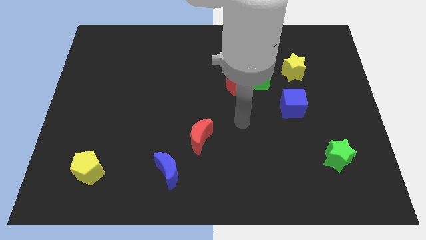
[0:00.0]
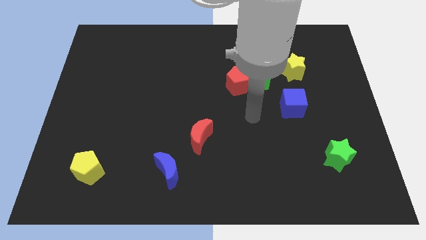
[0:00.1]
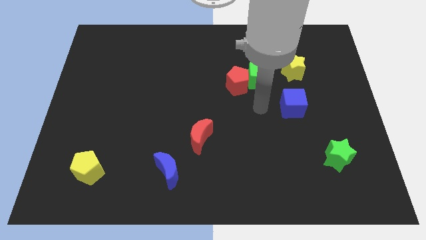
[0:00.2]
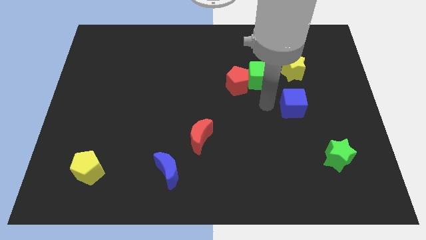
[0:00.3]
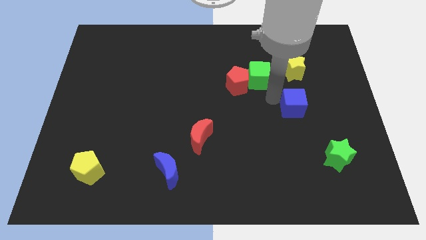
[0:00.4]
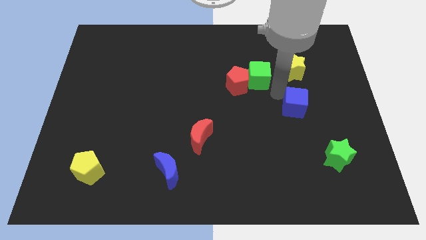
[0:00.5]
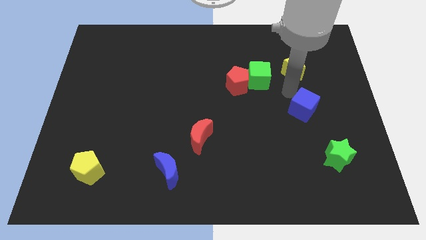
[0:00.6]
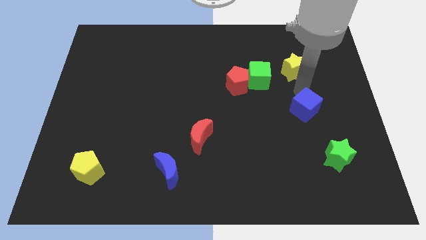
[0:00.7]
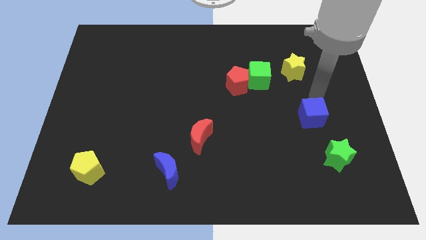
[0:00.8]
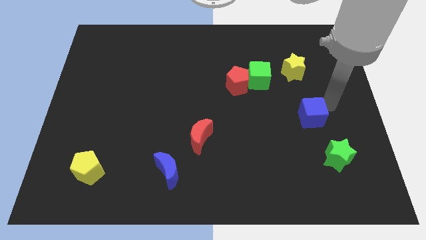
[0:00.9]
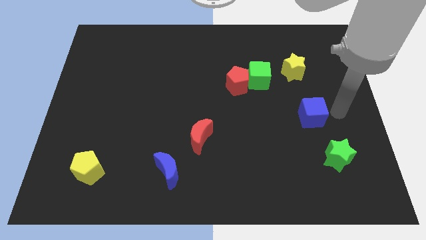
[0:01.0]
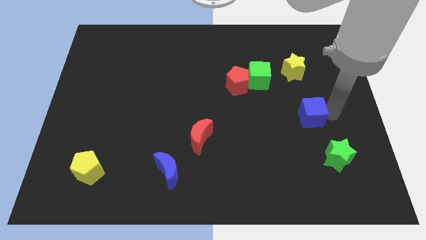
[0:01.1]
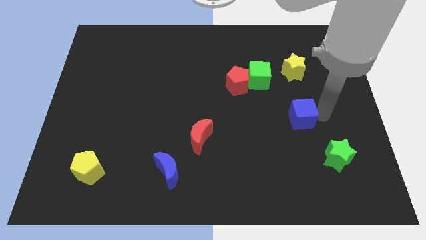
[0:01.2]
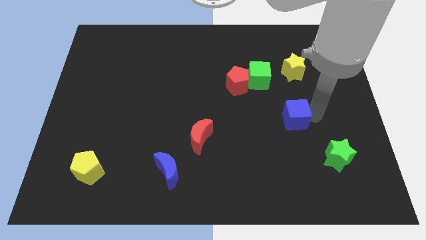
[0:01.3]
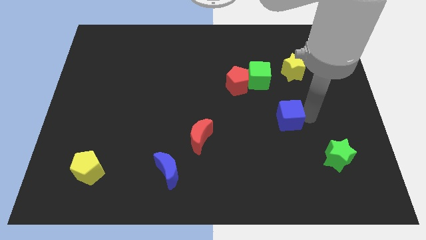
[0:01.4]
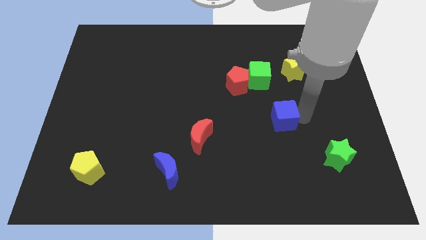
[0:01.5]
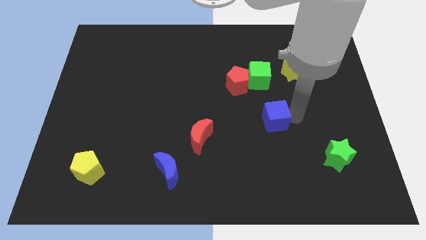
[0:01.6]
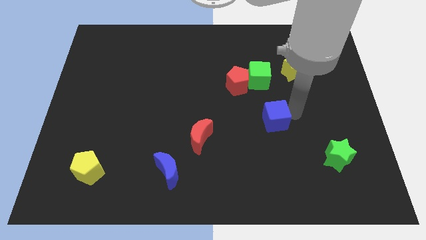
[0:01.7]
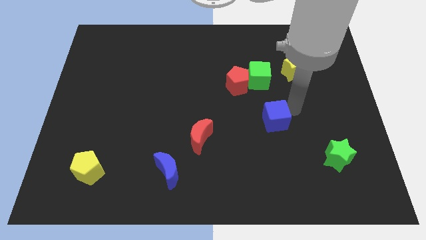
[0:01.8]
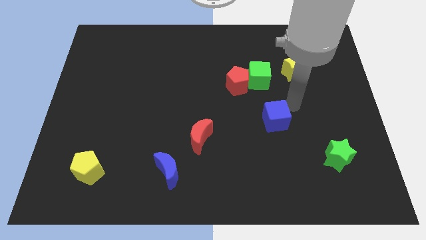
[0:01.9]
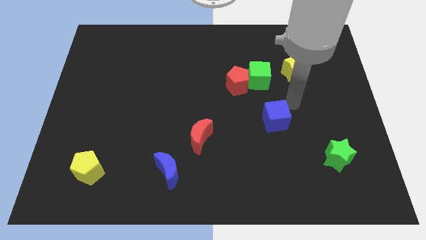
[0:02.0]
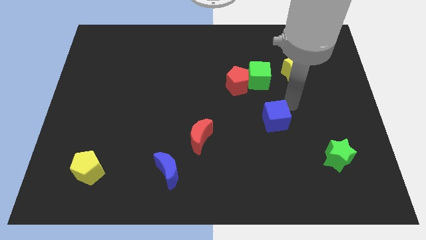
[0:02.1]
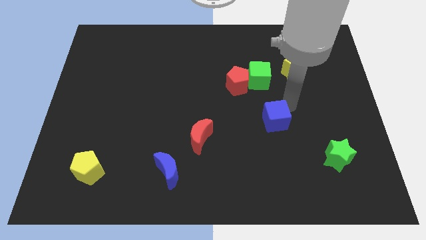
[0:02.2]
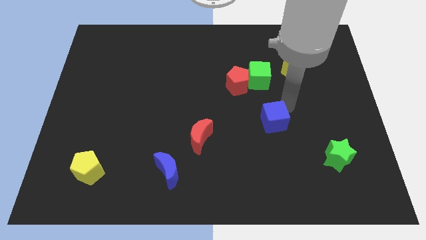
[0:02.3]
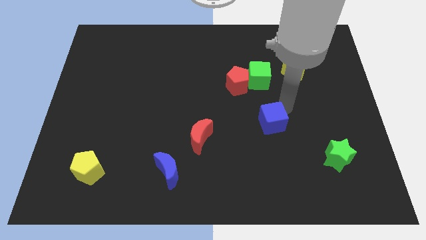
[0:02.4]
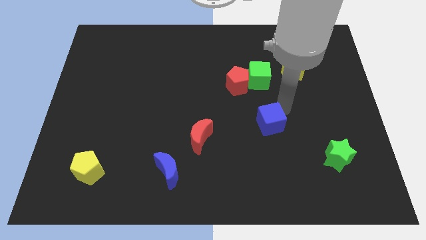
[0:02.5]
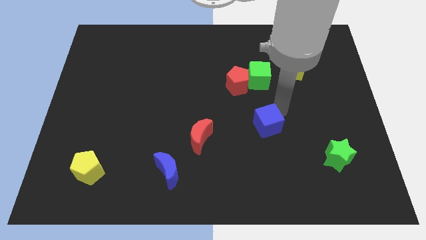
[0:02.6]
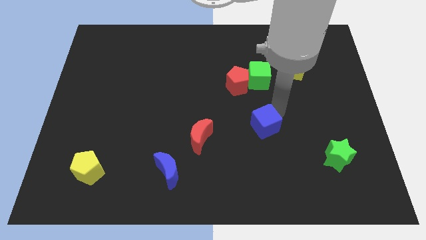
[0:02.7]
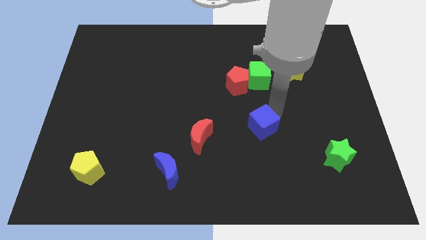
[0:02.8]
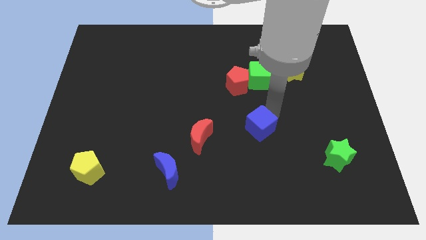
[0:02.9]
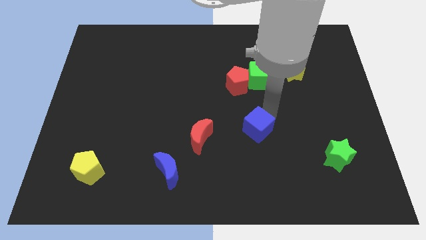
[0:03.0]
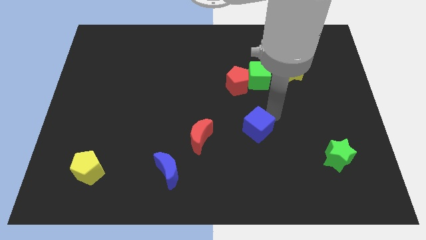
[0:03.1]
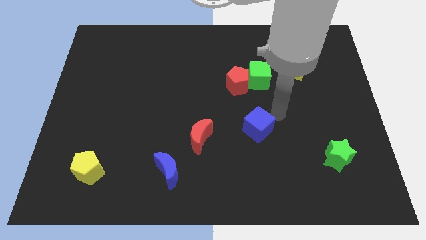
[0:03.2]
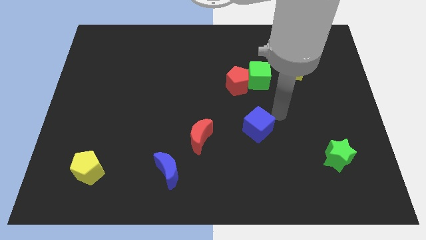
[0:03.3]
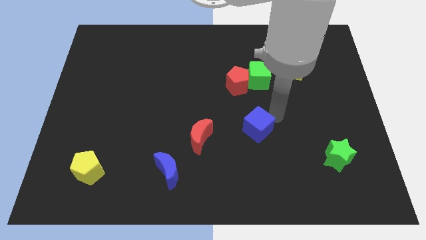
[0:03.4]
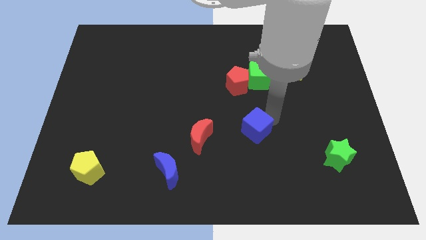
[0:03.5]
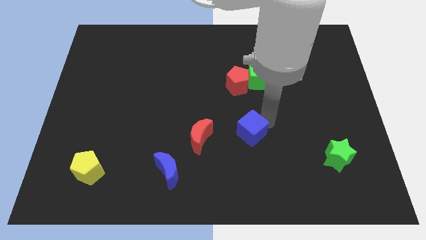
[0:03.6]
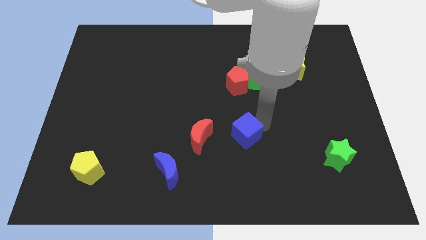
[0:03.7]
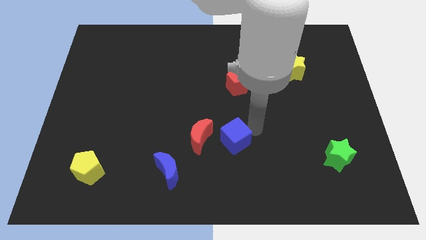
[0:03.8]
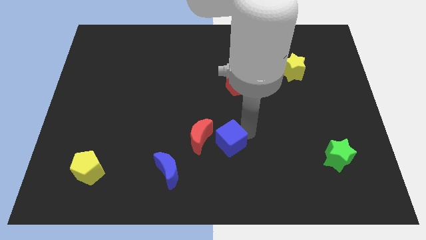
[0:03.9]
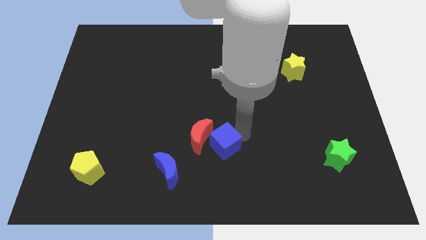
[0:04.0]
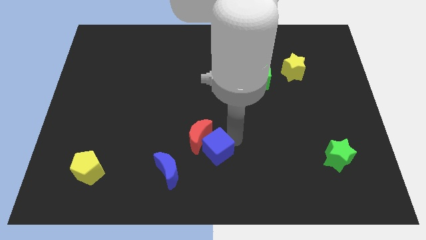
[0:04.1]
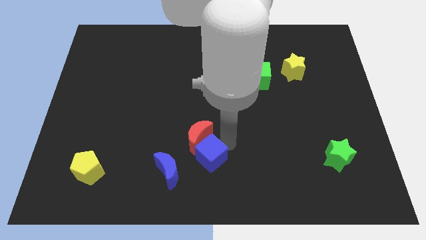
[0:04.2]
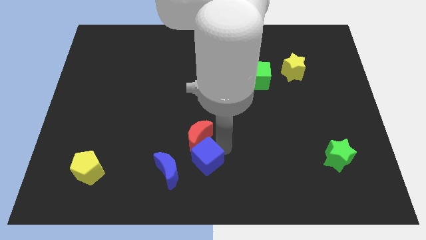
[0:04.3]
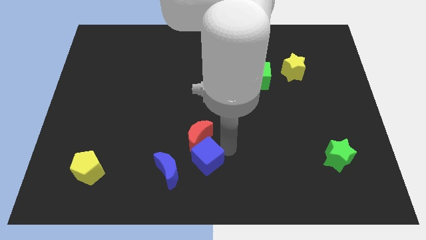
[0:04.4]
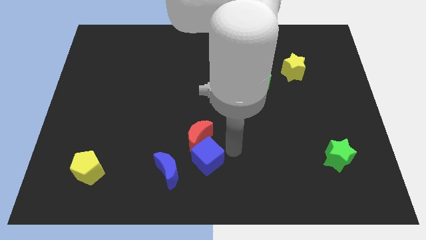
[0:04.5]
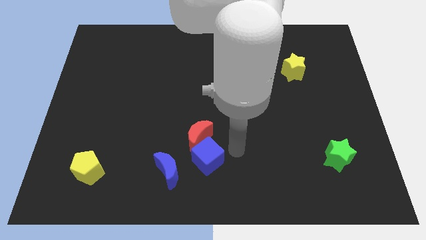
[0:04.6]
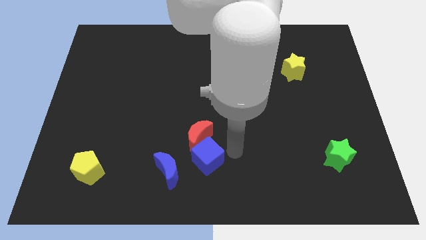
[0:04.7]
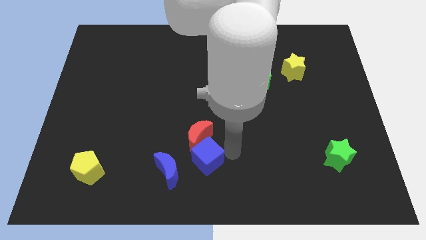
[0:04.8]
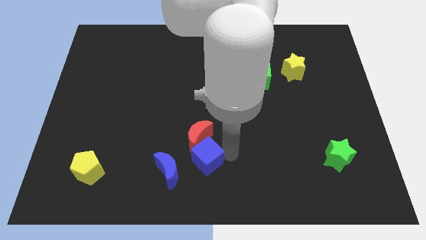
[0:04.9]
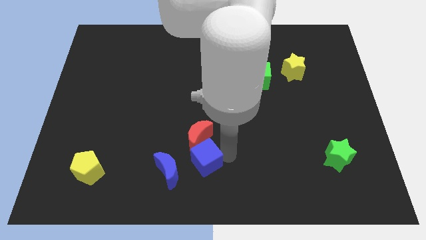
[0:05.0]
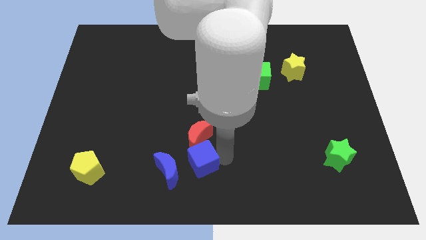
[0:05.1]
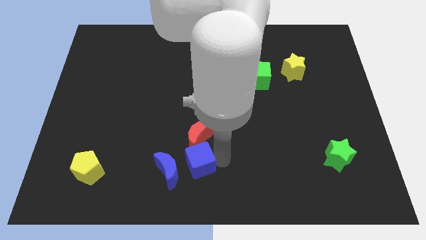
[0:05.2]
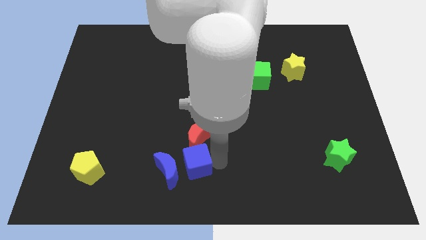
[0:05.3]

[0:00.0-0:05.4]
move the blue cube to the blue moon

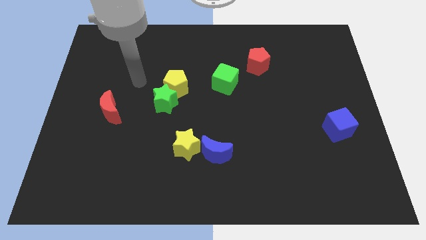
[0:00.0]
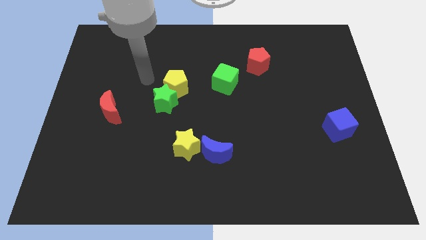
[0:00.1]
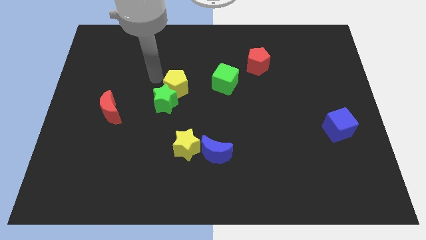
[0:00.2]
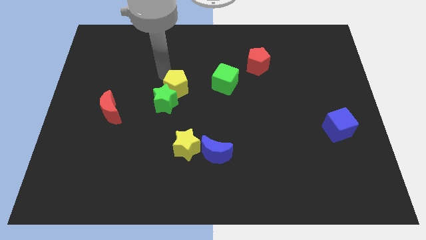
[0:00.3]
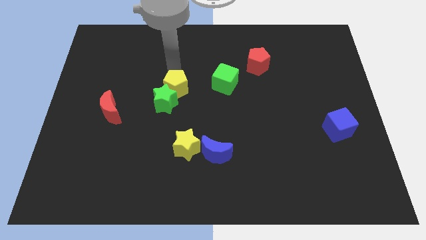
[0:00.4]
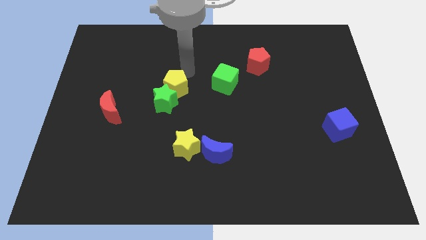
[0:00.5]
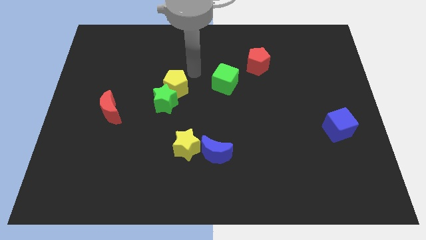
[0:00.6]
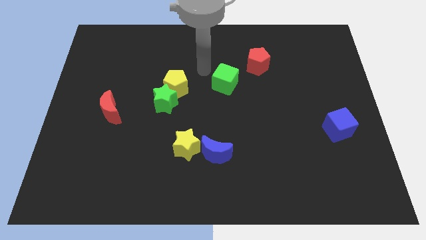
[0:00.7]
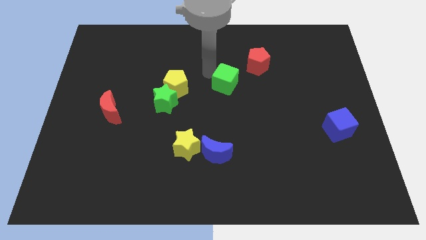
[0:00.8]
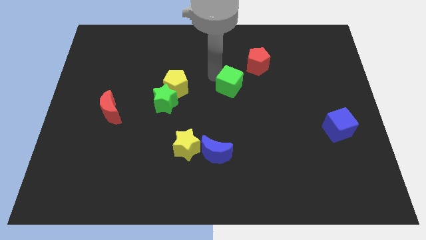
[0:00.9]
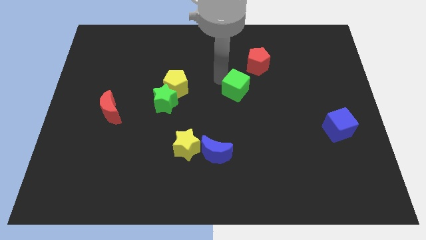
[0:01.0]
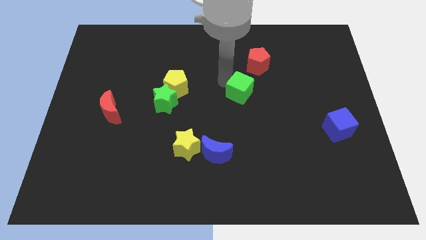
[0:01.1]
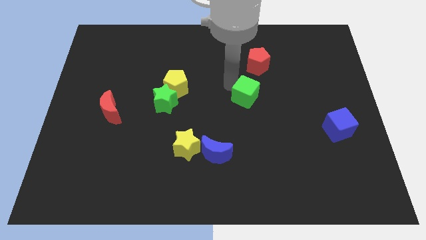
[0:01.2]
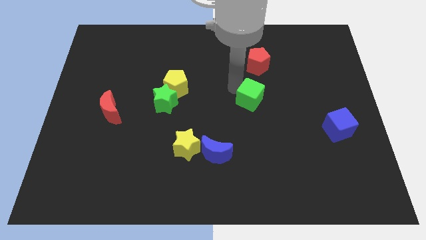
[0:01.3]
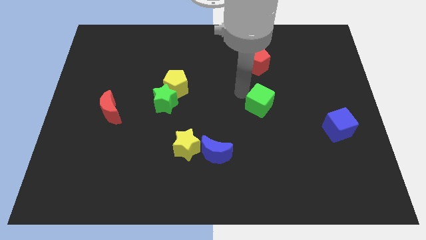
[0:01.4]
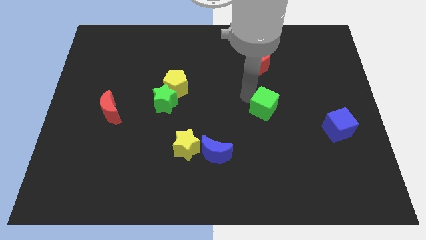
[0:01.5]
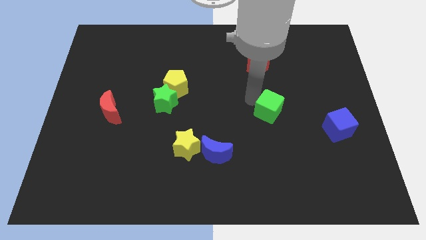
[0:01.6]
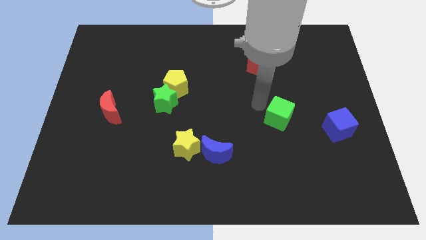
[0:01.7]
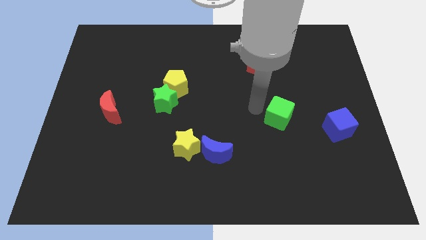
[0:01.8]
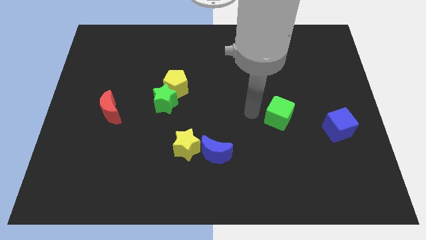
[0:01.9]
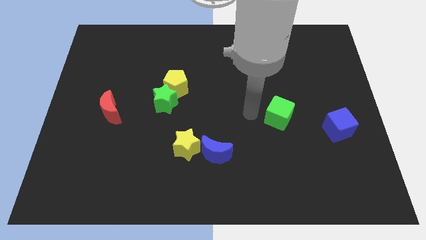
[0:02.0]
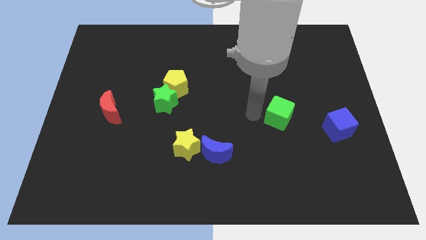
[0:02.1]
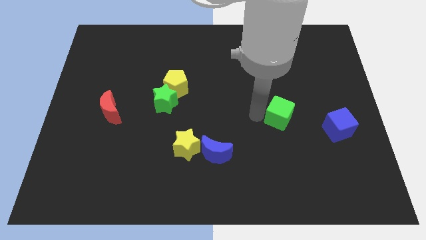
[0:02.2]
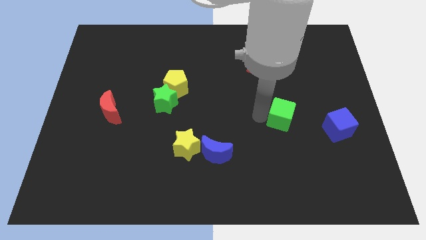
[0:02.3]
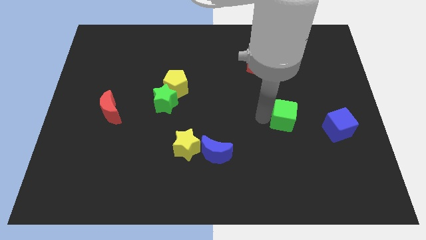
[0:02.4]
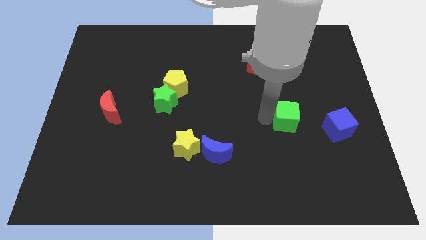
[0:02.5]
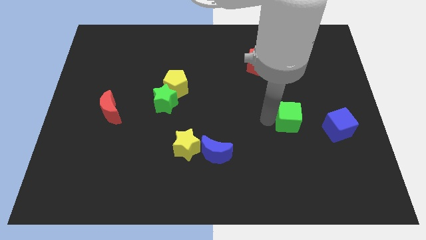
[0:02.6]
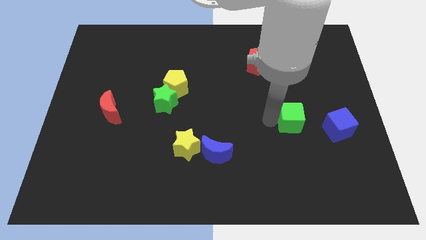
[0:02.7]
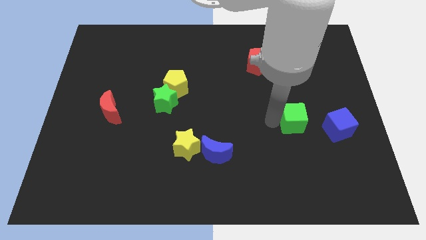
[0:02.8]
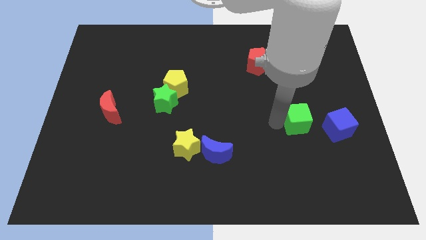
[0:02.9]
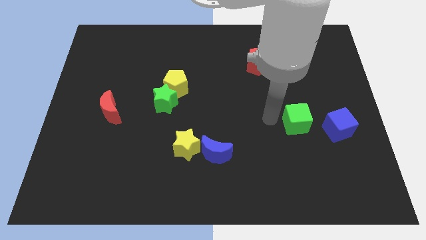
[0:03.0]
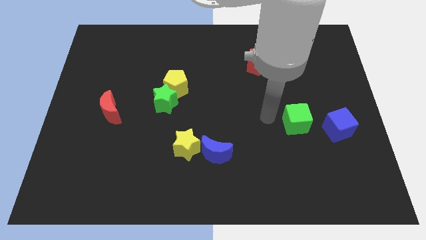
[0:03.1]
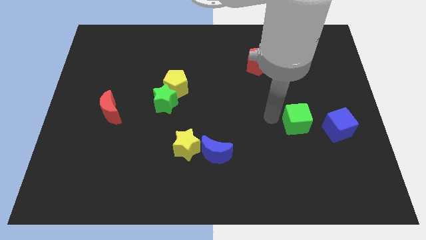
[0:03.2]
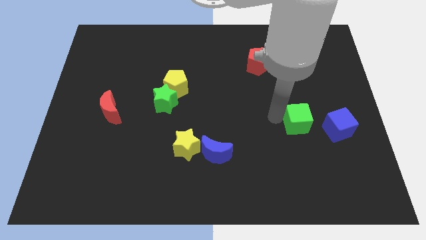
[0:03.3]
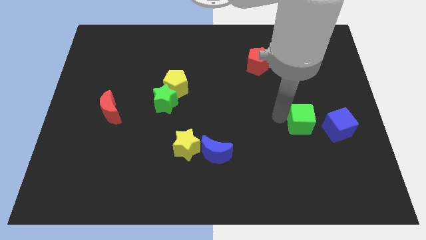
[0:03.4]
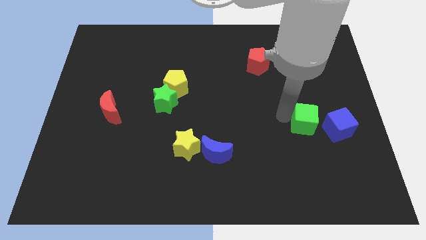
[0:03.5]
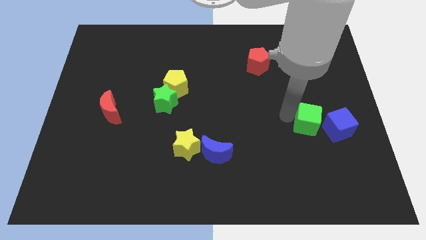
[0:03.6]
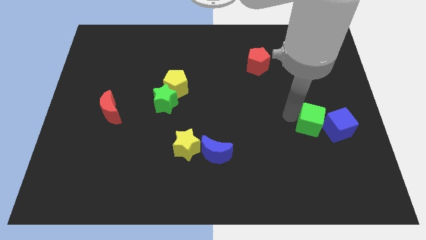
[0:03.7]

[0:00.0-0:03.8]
move the green cube next to the blue cube
